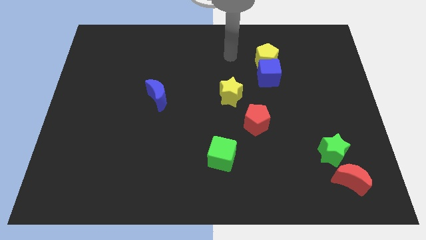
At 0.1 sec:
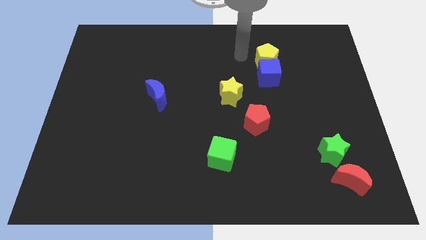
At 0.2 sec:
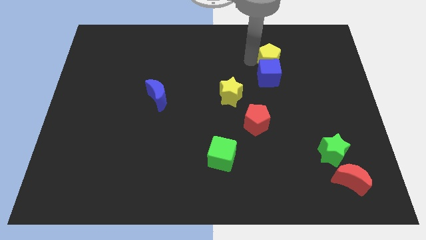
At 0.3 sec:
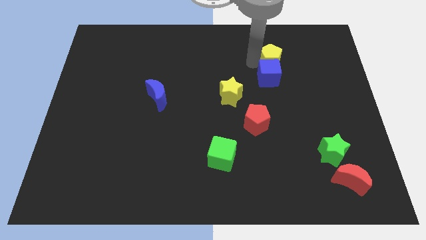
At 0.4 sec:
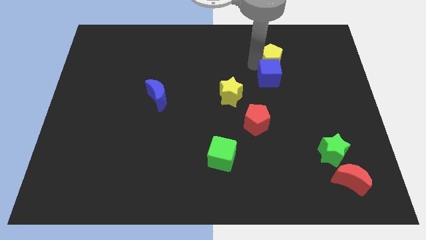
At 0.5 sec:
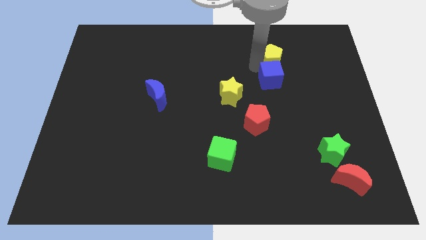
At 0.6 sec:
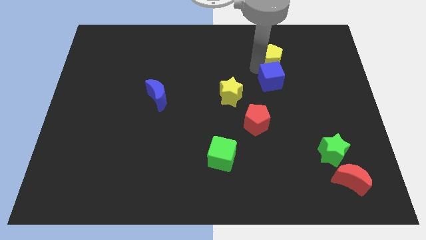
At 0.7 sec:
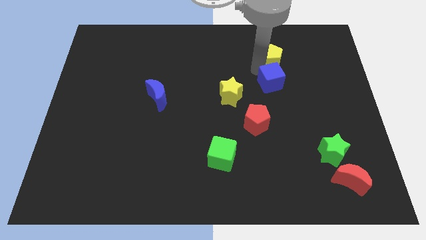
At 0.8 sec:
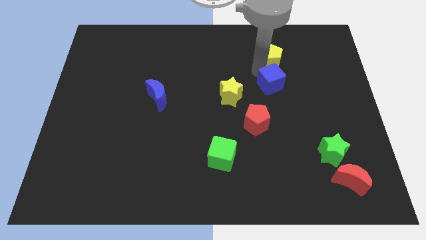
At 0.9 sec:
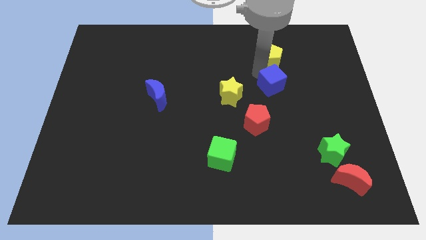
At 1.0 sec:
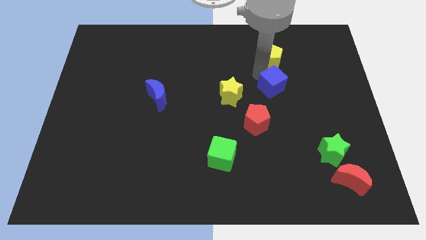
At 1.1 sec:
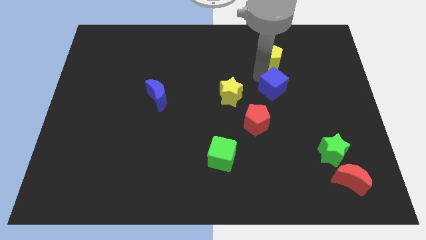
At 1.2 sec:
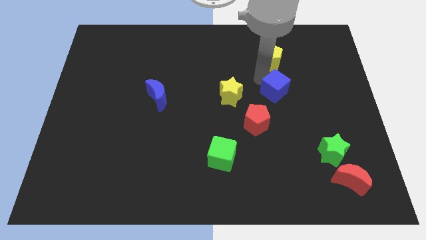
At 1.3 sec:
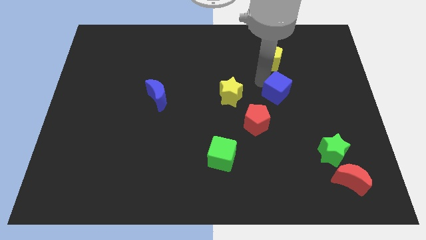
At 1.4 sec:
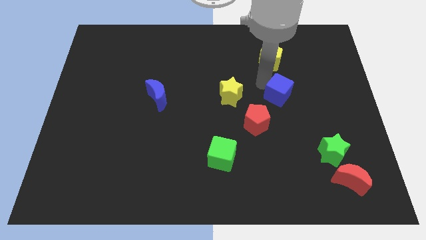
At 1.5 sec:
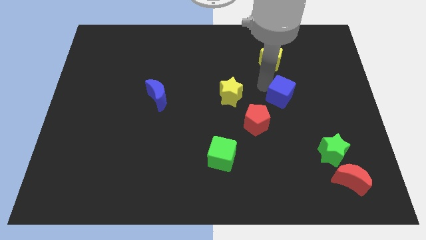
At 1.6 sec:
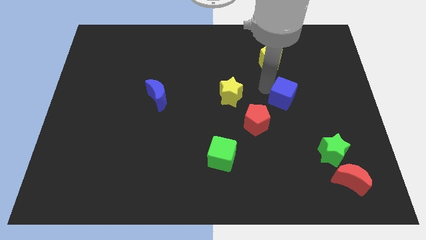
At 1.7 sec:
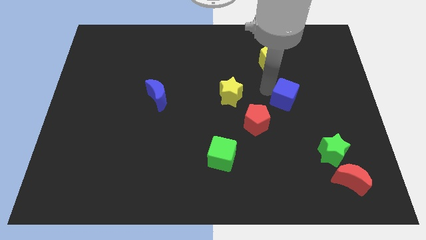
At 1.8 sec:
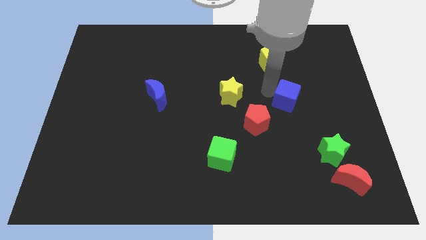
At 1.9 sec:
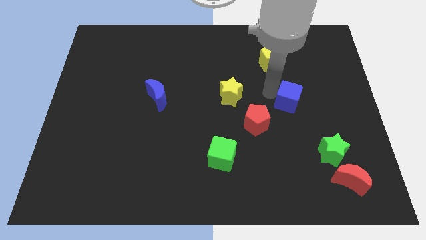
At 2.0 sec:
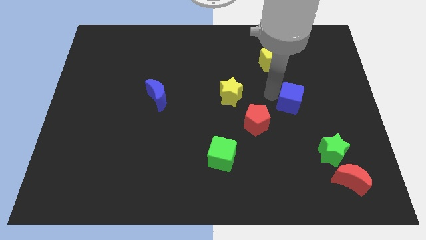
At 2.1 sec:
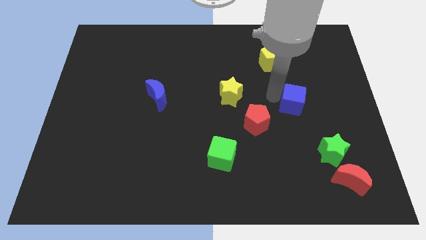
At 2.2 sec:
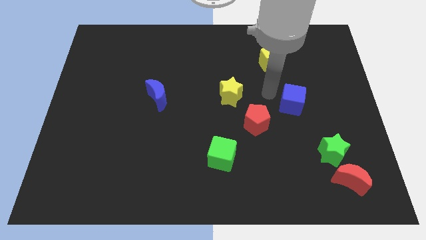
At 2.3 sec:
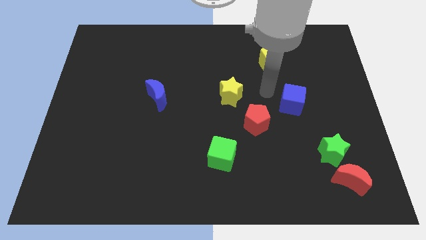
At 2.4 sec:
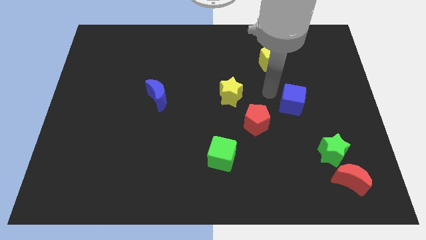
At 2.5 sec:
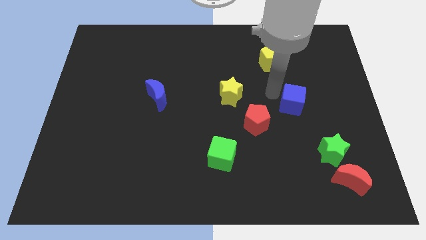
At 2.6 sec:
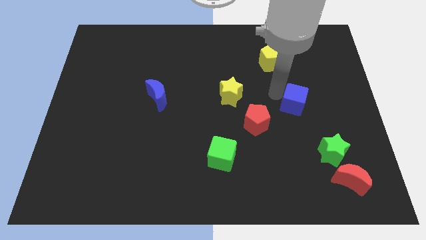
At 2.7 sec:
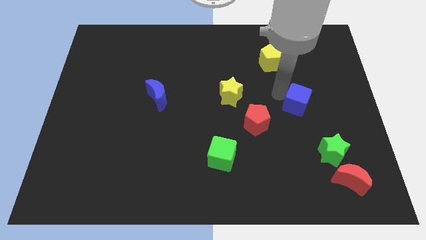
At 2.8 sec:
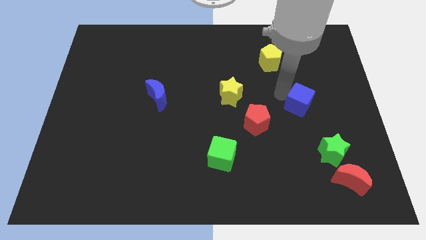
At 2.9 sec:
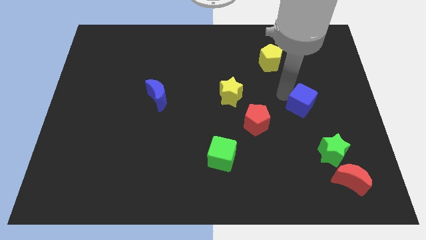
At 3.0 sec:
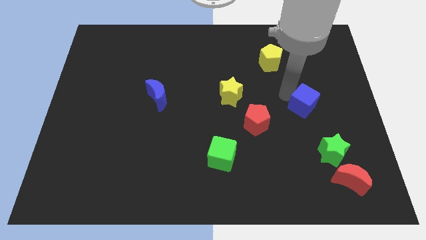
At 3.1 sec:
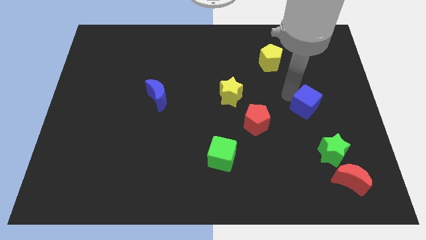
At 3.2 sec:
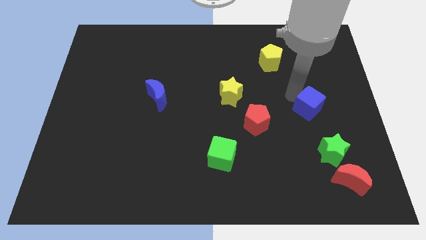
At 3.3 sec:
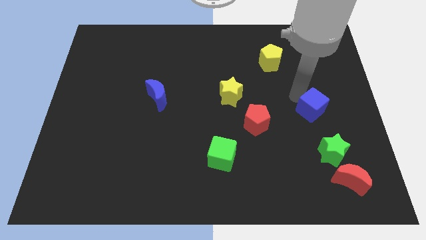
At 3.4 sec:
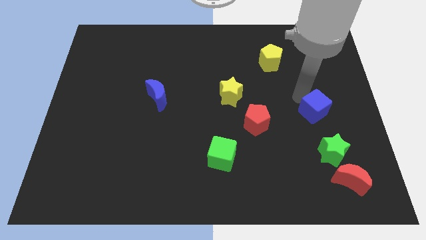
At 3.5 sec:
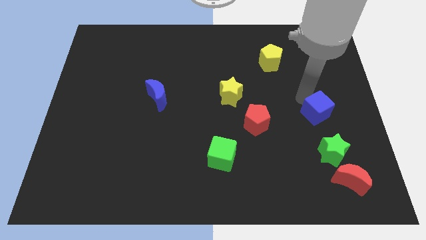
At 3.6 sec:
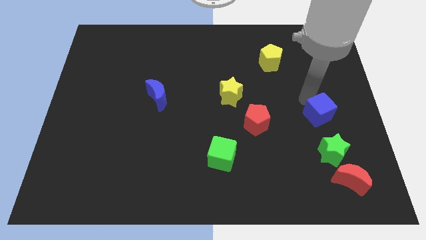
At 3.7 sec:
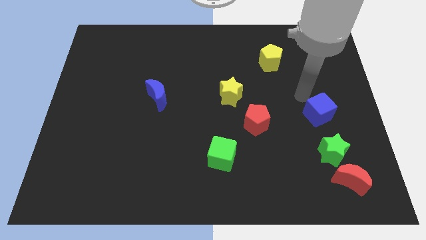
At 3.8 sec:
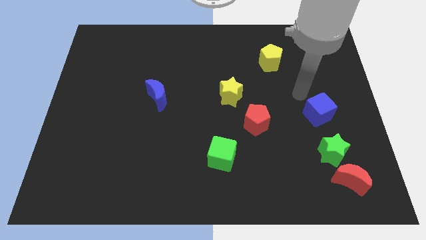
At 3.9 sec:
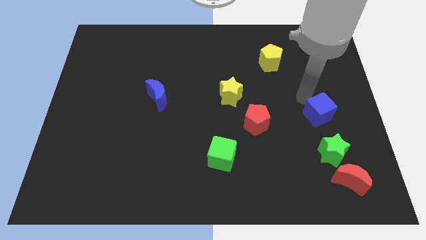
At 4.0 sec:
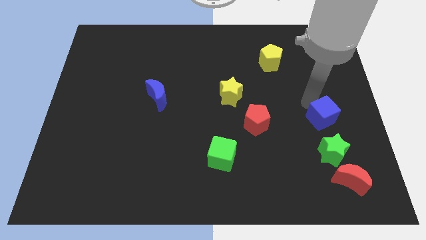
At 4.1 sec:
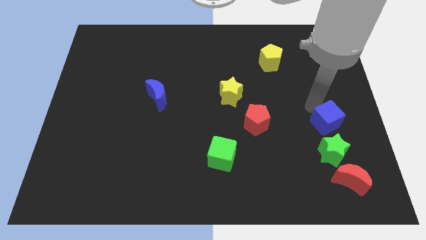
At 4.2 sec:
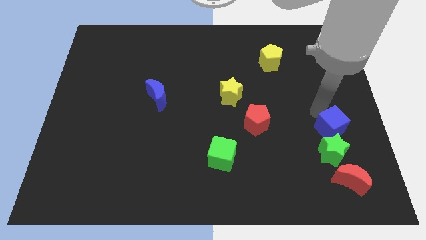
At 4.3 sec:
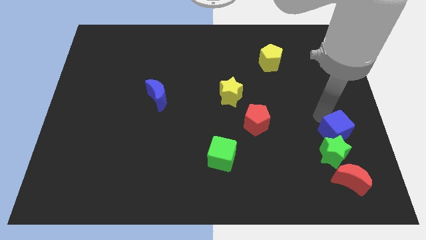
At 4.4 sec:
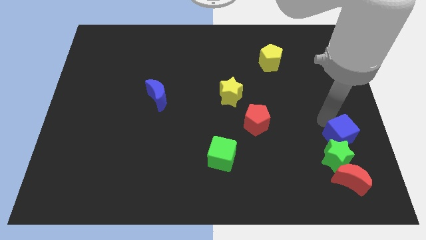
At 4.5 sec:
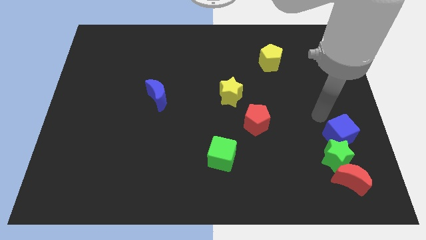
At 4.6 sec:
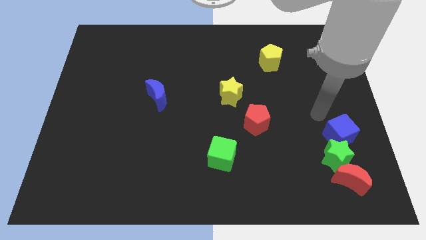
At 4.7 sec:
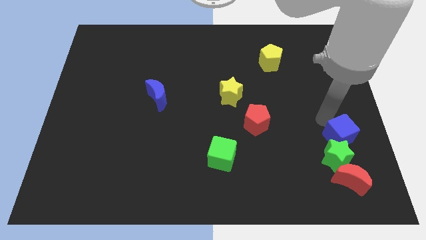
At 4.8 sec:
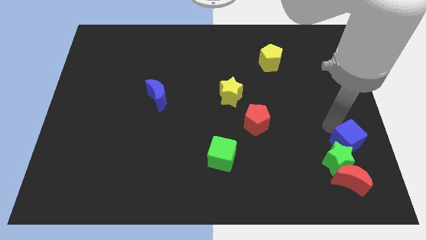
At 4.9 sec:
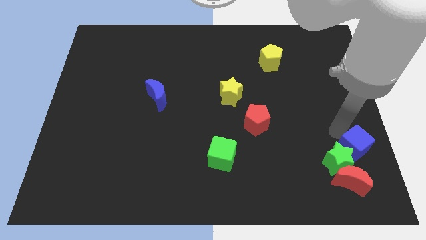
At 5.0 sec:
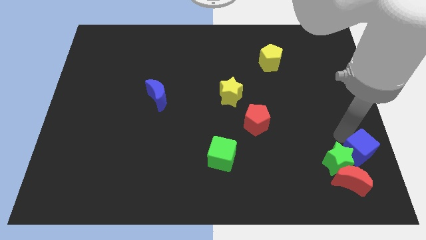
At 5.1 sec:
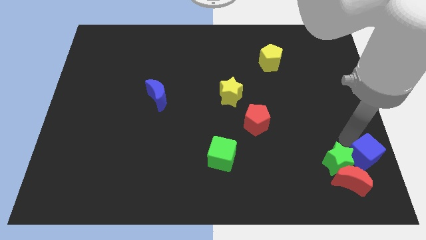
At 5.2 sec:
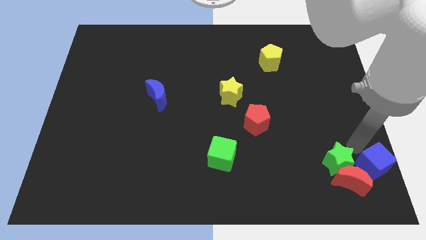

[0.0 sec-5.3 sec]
move the blue cube to the bottom right

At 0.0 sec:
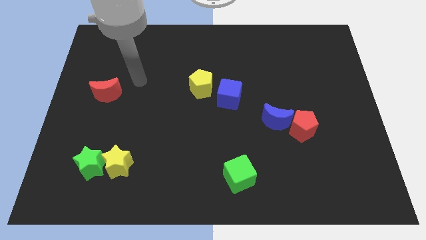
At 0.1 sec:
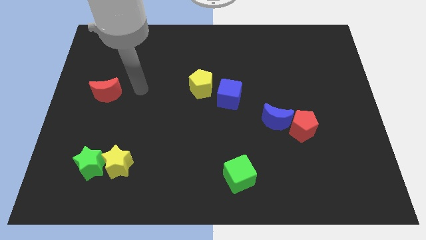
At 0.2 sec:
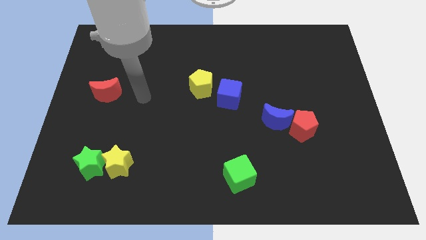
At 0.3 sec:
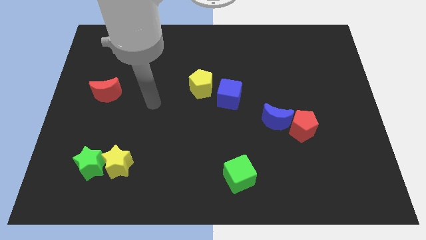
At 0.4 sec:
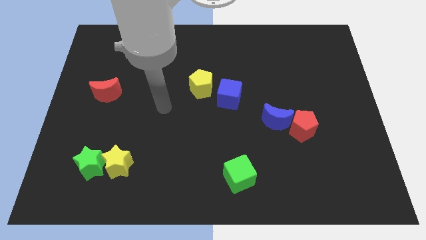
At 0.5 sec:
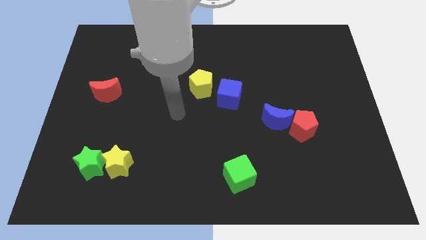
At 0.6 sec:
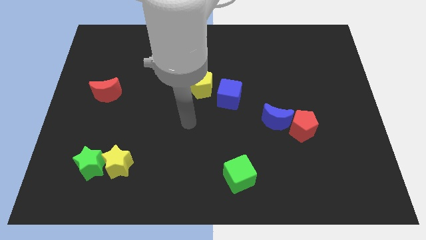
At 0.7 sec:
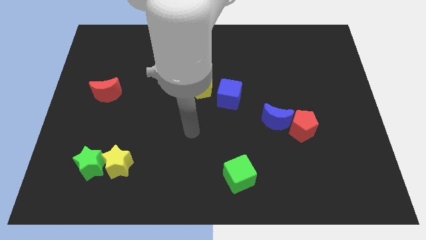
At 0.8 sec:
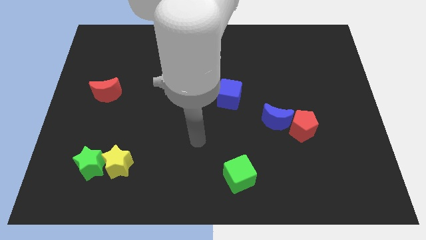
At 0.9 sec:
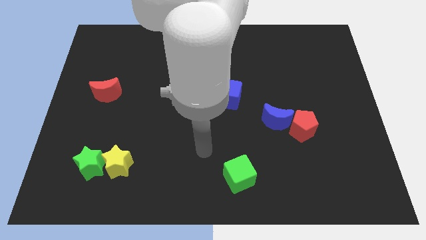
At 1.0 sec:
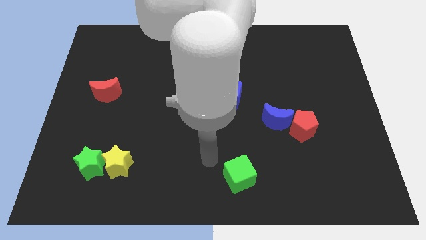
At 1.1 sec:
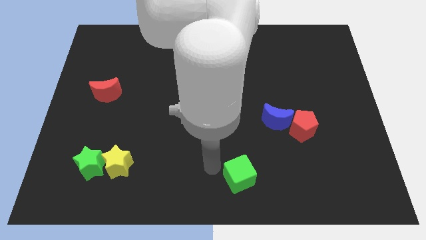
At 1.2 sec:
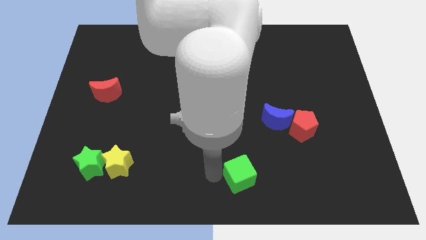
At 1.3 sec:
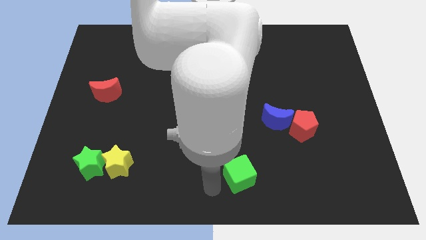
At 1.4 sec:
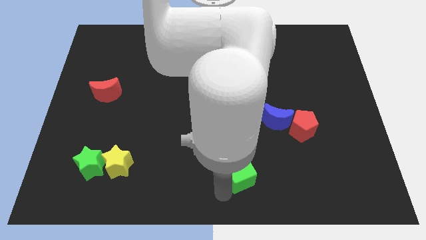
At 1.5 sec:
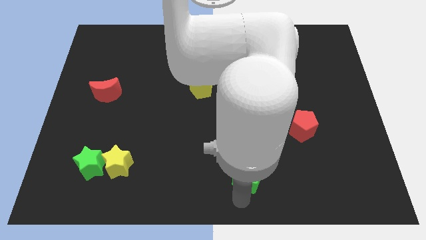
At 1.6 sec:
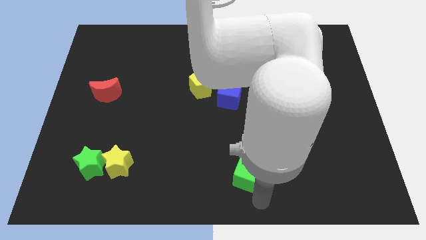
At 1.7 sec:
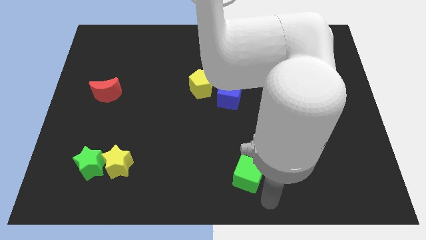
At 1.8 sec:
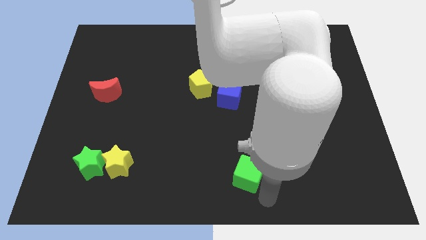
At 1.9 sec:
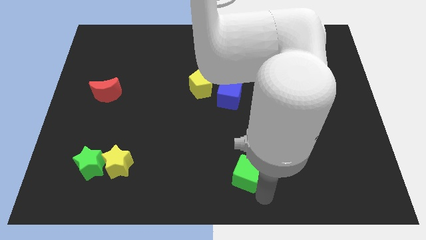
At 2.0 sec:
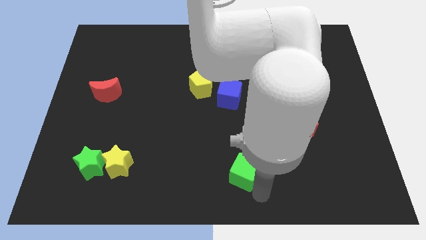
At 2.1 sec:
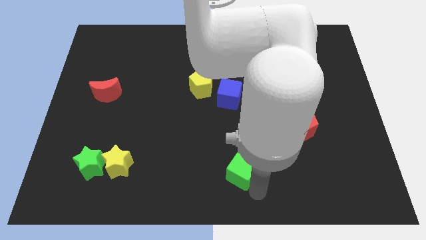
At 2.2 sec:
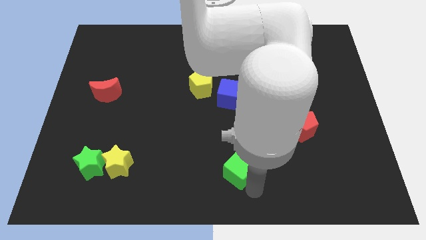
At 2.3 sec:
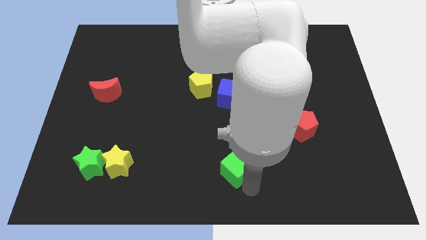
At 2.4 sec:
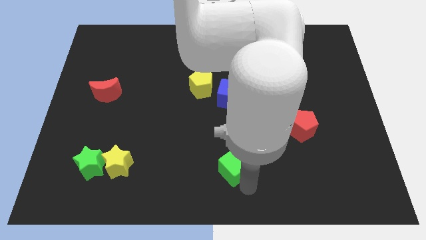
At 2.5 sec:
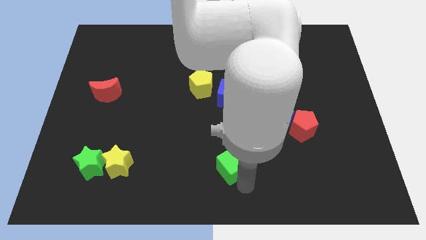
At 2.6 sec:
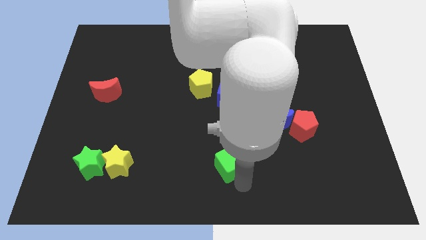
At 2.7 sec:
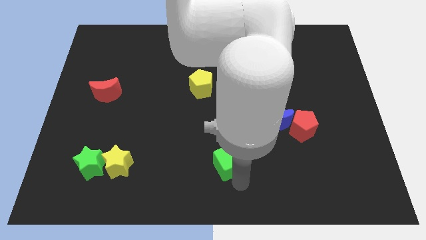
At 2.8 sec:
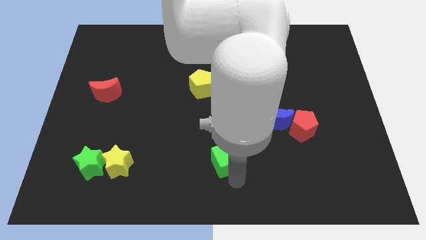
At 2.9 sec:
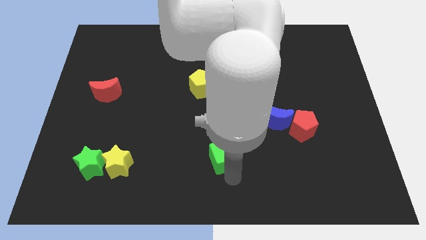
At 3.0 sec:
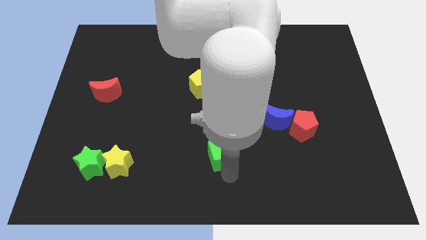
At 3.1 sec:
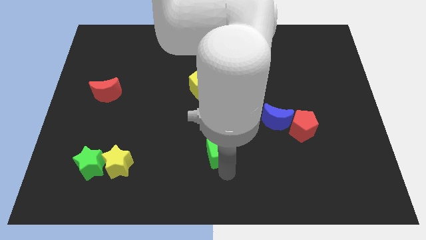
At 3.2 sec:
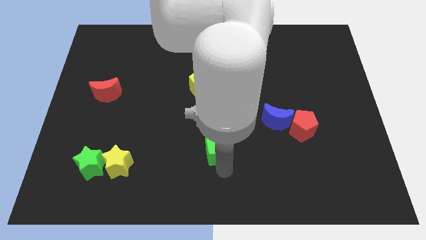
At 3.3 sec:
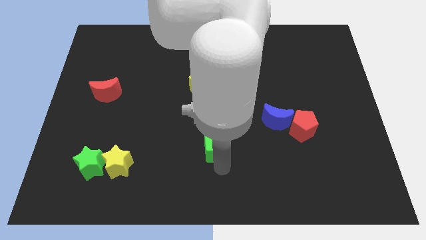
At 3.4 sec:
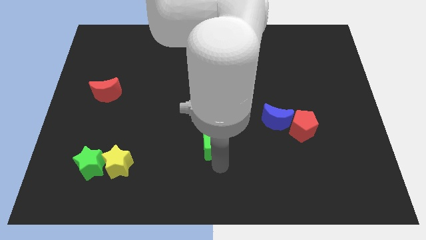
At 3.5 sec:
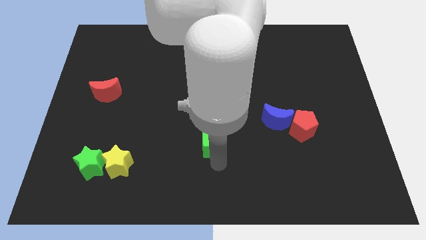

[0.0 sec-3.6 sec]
move the green cube to the center of the board
